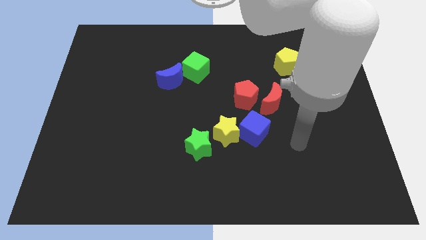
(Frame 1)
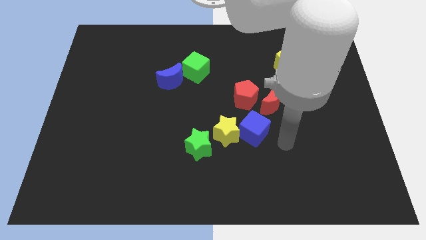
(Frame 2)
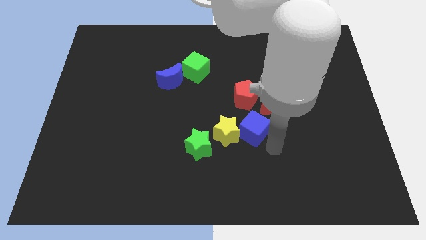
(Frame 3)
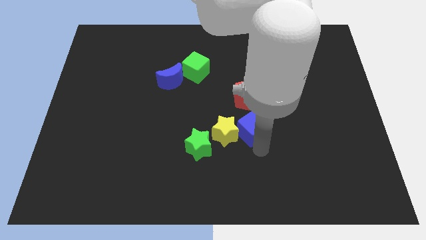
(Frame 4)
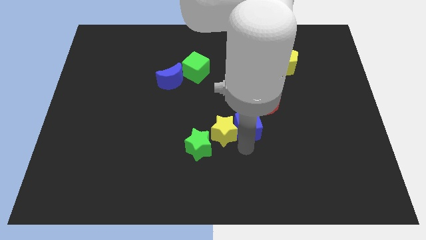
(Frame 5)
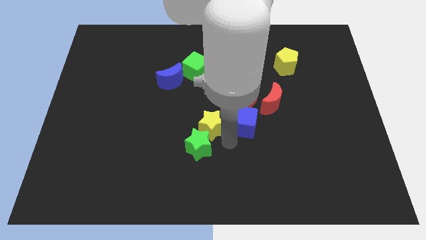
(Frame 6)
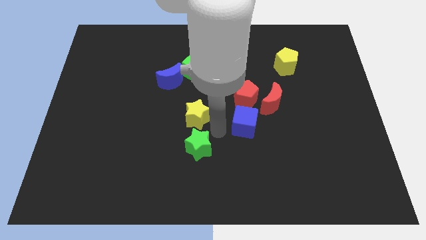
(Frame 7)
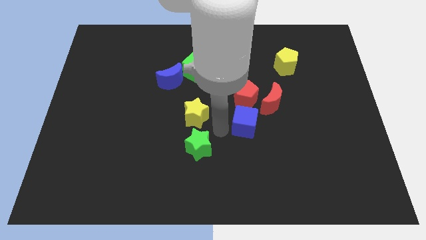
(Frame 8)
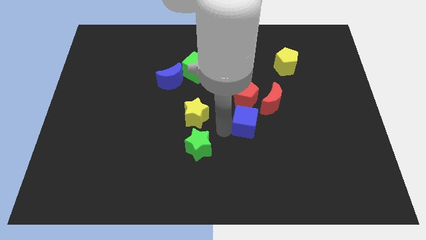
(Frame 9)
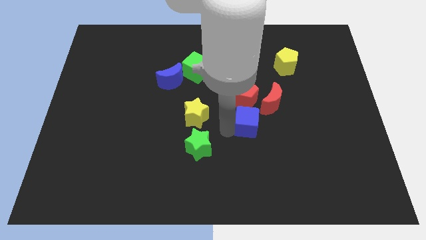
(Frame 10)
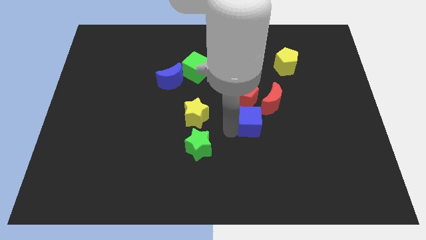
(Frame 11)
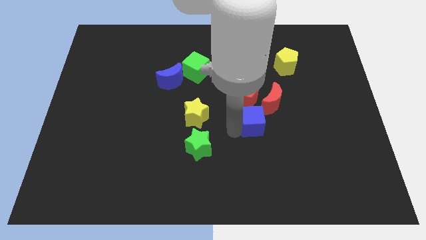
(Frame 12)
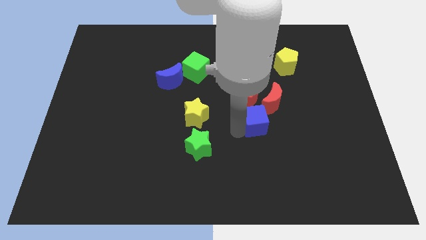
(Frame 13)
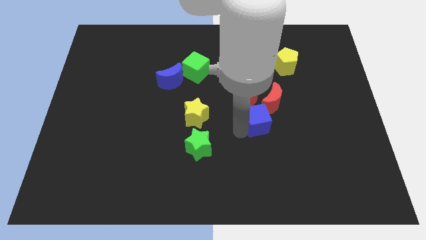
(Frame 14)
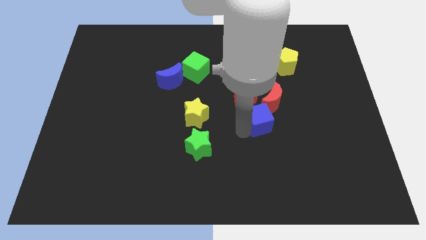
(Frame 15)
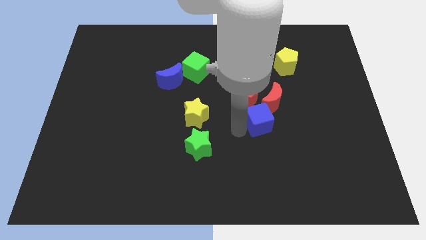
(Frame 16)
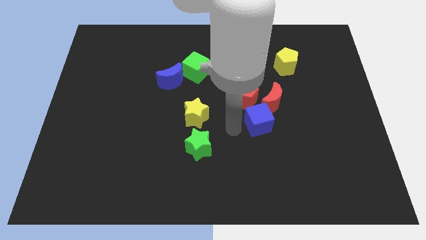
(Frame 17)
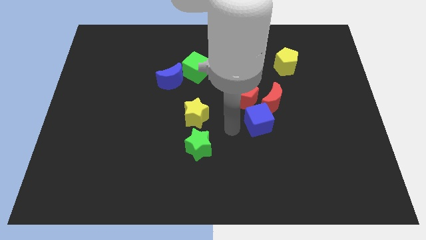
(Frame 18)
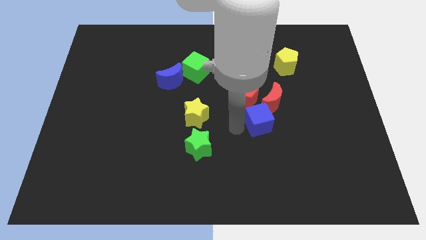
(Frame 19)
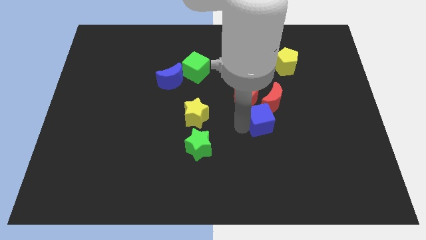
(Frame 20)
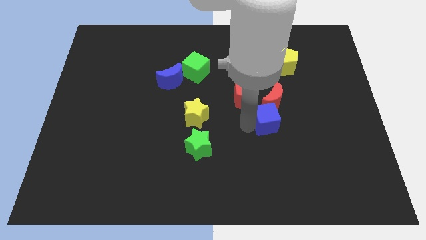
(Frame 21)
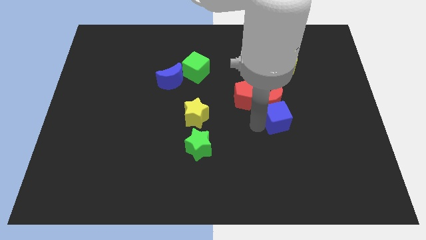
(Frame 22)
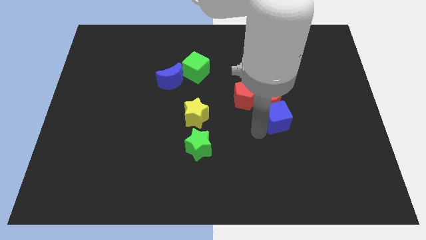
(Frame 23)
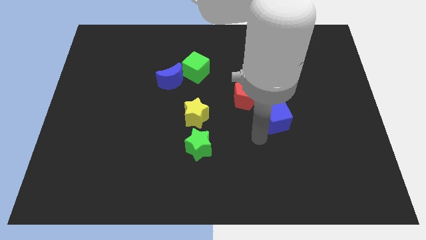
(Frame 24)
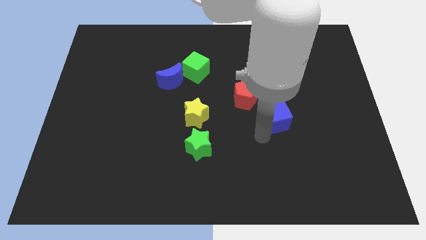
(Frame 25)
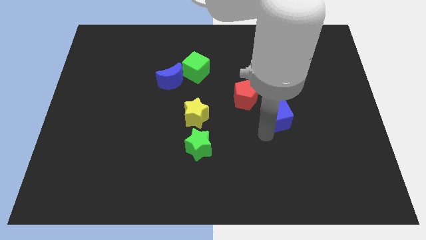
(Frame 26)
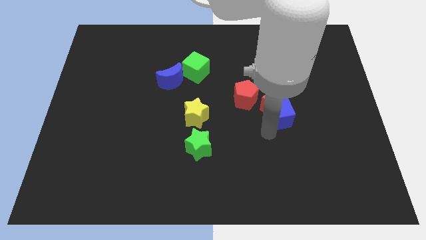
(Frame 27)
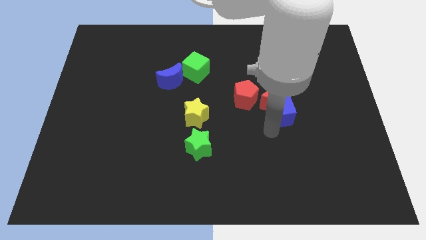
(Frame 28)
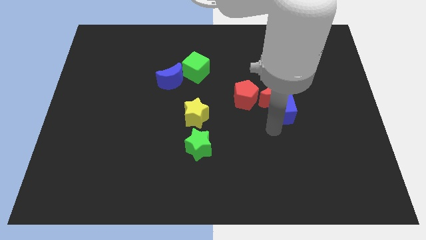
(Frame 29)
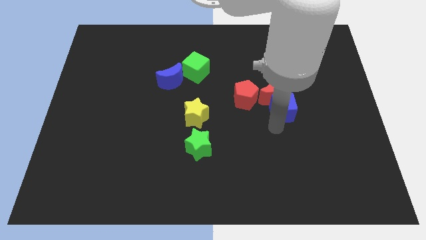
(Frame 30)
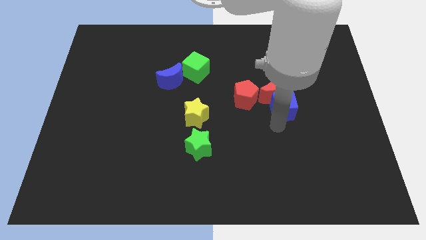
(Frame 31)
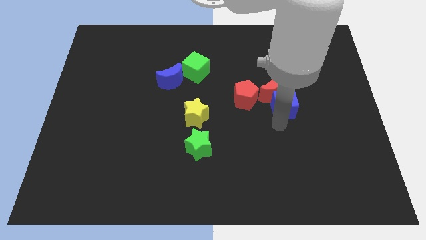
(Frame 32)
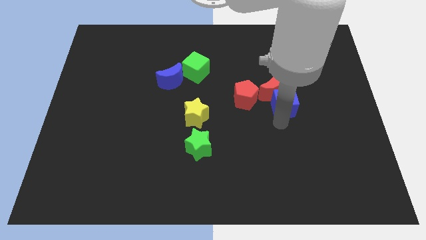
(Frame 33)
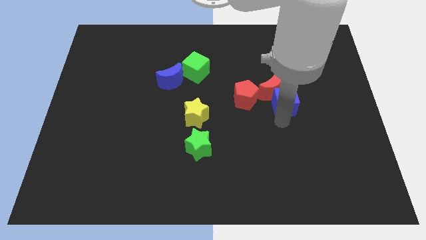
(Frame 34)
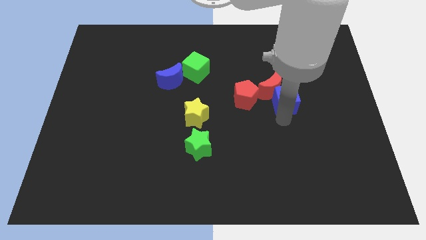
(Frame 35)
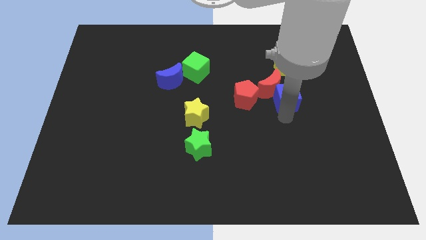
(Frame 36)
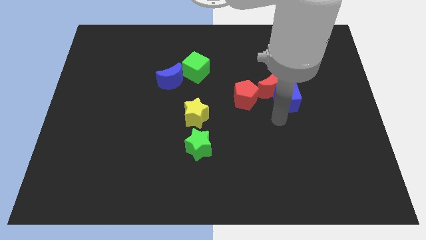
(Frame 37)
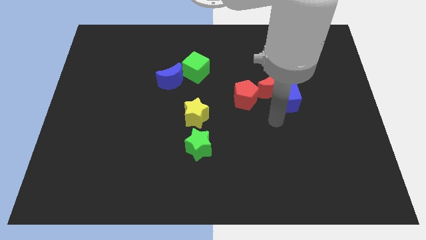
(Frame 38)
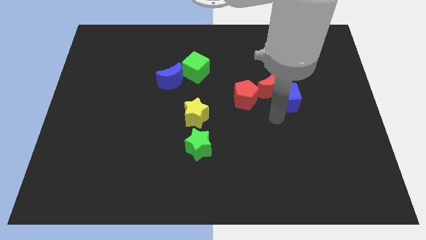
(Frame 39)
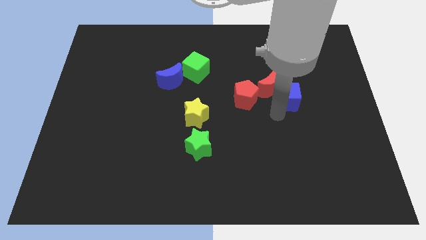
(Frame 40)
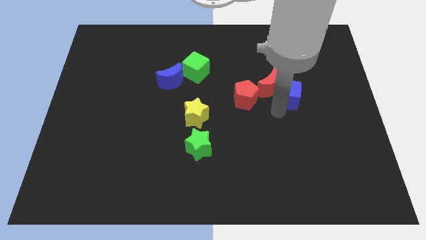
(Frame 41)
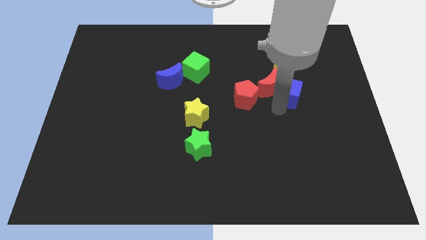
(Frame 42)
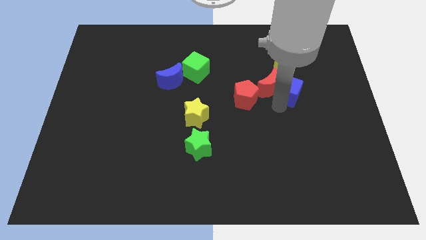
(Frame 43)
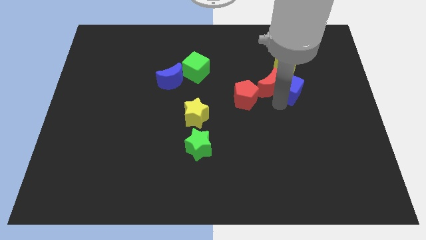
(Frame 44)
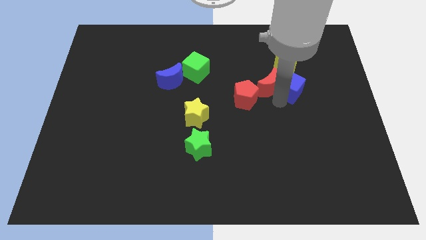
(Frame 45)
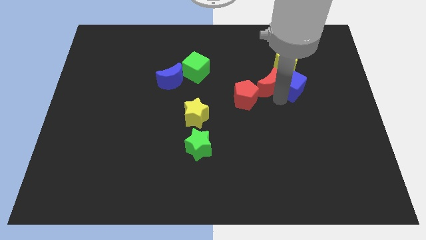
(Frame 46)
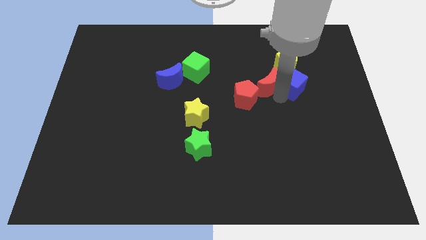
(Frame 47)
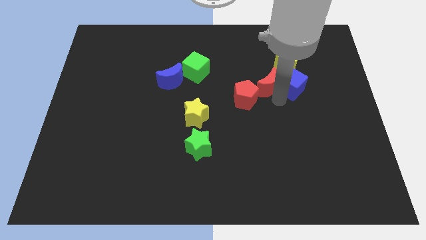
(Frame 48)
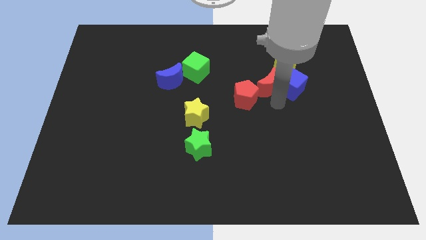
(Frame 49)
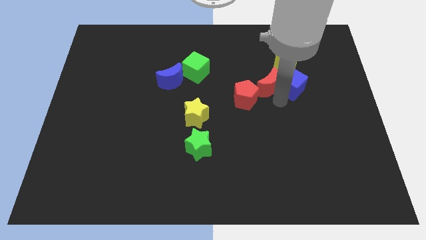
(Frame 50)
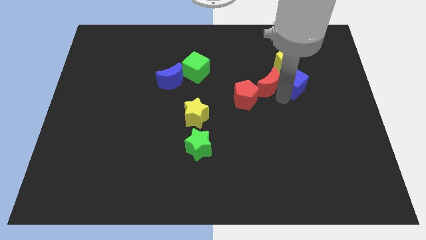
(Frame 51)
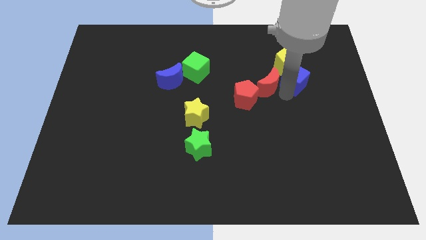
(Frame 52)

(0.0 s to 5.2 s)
slide the blue cube close to the yellow pentagon

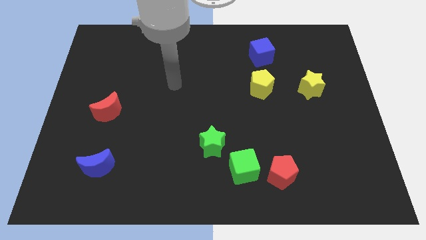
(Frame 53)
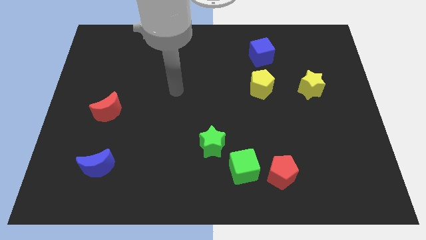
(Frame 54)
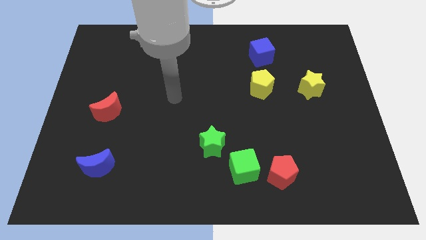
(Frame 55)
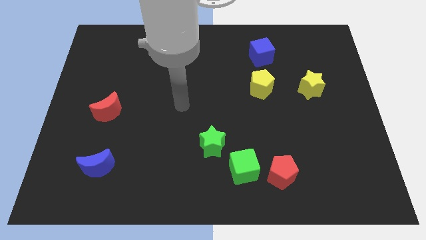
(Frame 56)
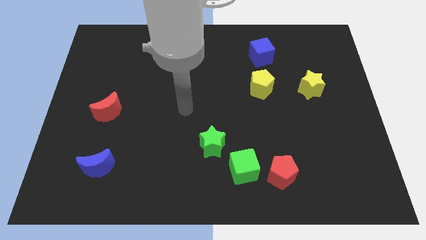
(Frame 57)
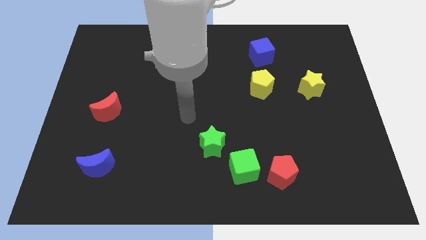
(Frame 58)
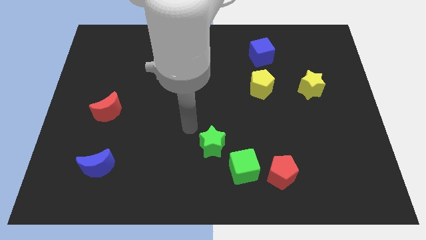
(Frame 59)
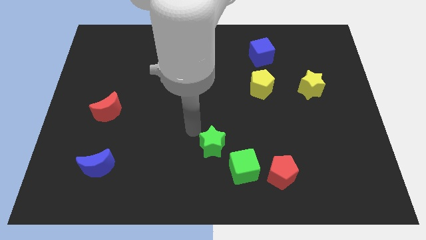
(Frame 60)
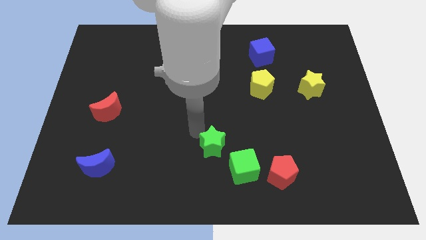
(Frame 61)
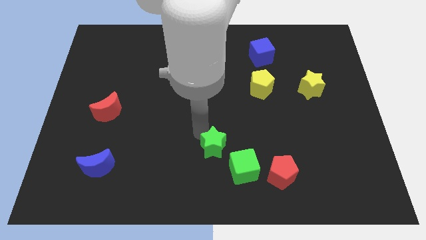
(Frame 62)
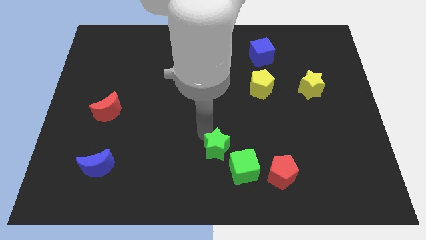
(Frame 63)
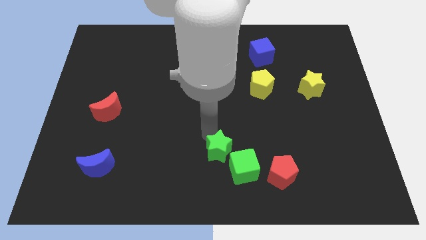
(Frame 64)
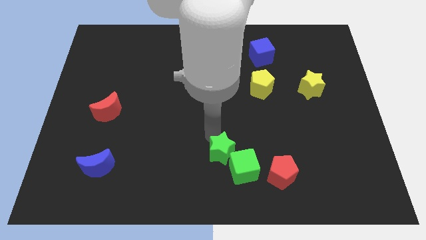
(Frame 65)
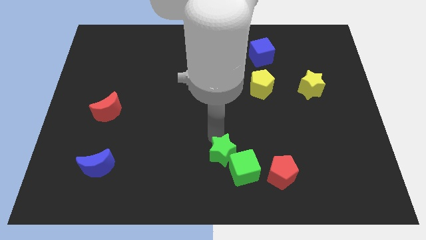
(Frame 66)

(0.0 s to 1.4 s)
slide the green star towards the green cube
